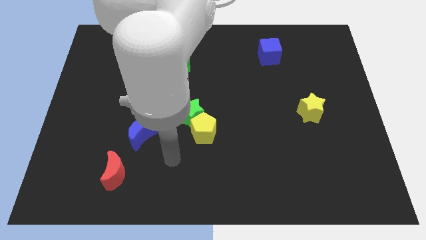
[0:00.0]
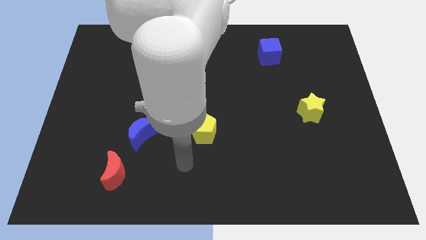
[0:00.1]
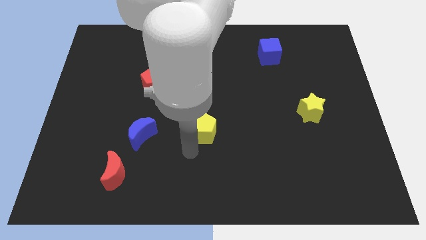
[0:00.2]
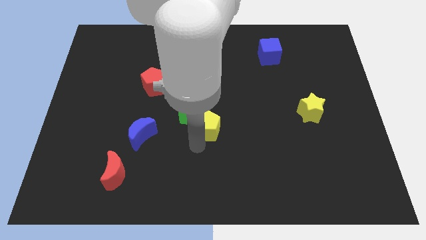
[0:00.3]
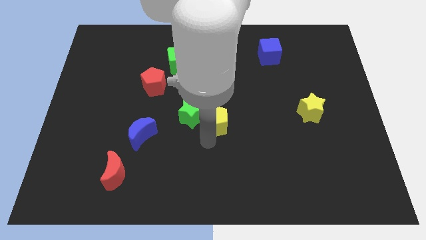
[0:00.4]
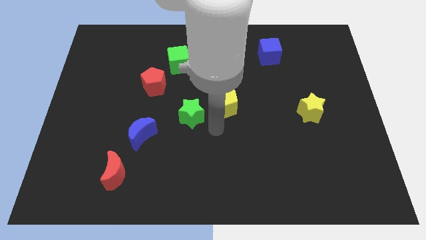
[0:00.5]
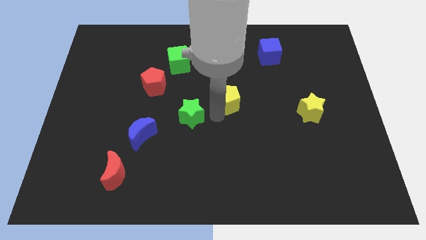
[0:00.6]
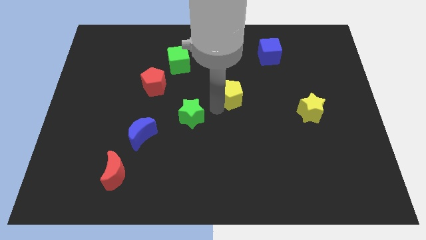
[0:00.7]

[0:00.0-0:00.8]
move the green star away from the yellow pentagon

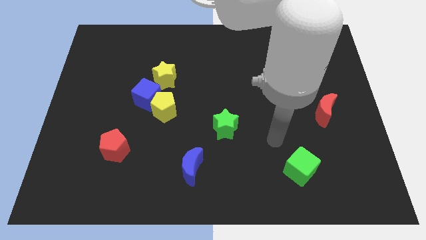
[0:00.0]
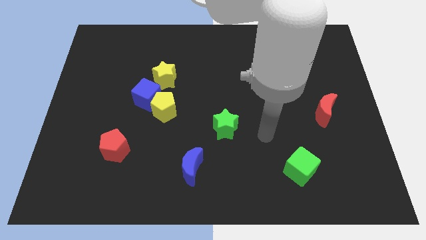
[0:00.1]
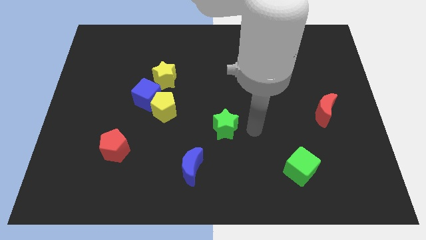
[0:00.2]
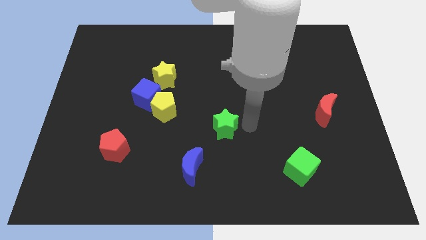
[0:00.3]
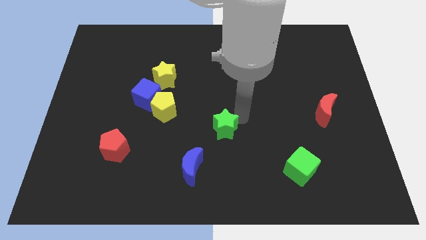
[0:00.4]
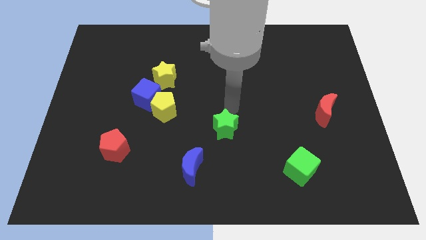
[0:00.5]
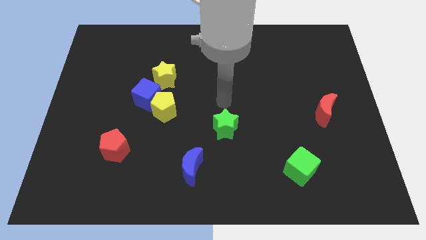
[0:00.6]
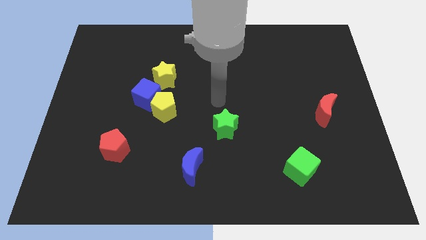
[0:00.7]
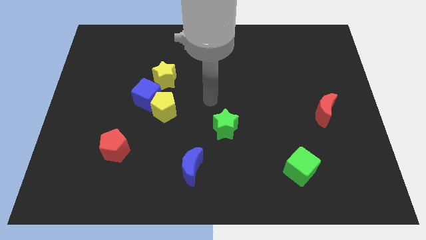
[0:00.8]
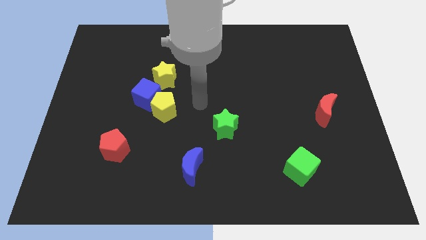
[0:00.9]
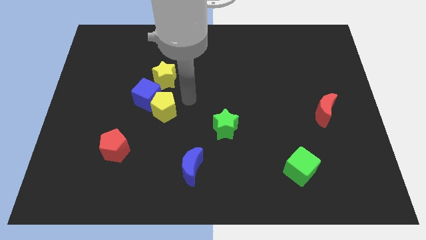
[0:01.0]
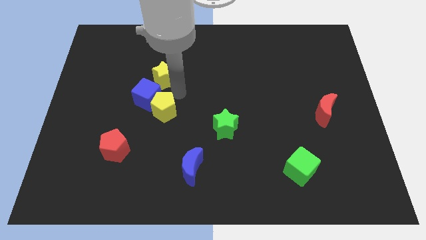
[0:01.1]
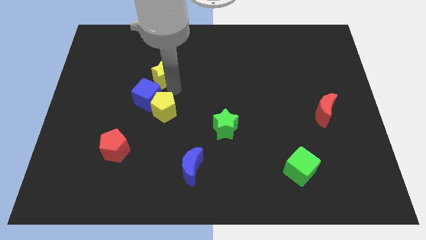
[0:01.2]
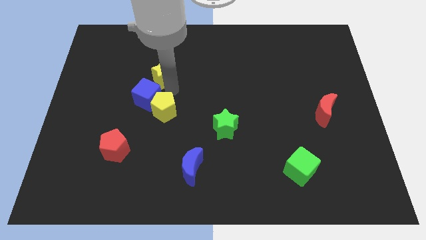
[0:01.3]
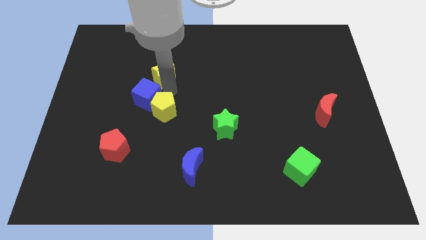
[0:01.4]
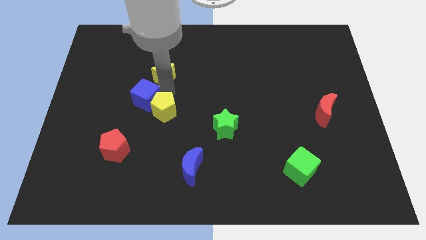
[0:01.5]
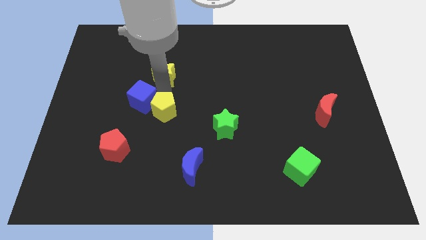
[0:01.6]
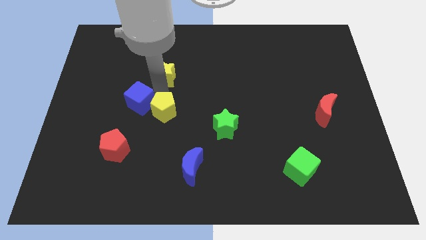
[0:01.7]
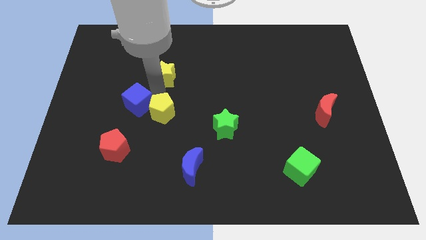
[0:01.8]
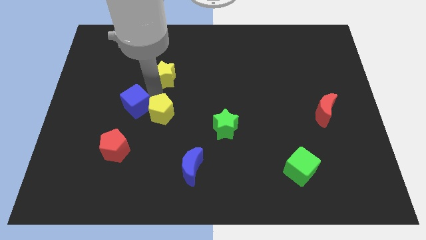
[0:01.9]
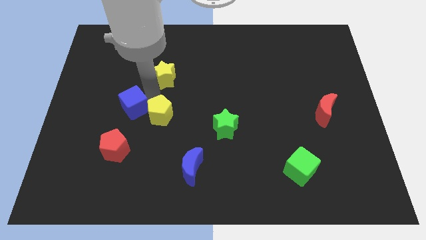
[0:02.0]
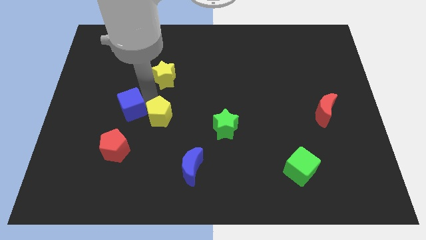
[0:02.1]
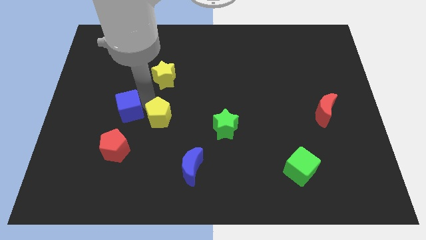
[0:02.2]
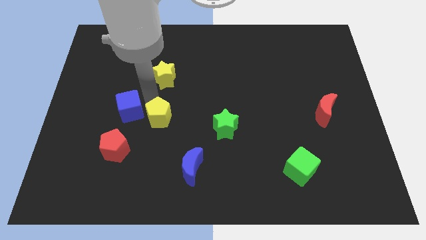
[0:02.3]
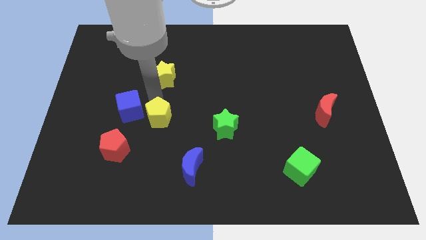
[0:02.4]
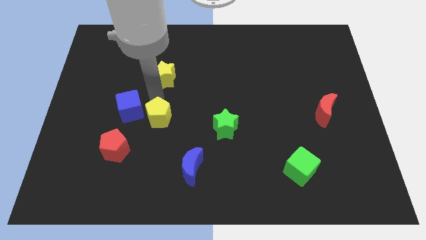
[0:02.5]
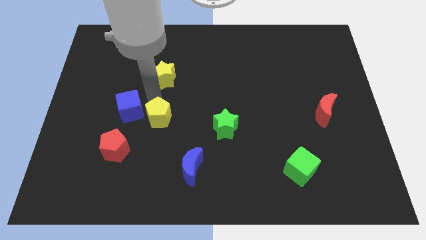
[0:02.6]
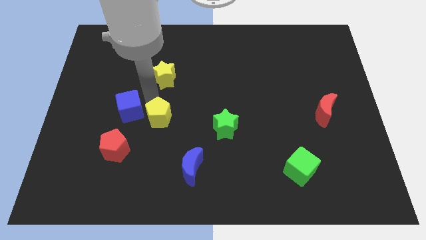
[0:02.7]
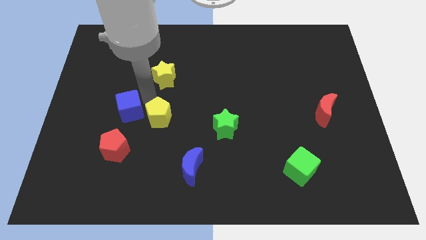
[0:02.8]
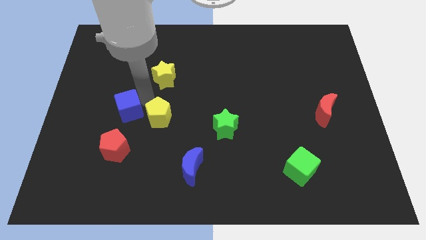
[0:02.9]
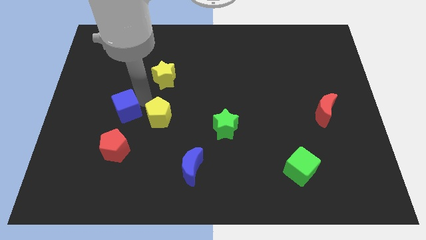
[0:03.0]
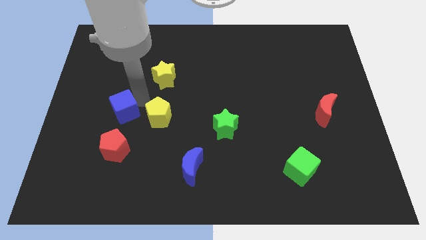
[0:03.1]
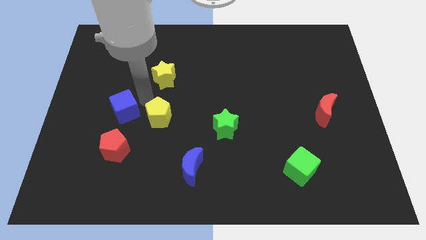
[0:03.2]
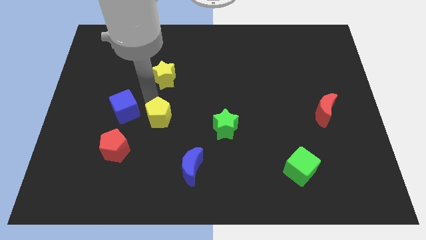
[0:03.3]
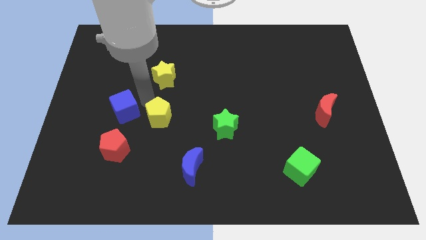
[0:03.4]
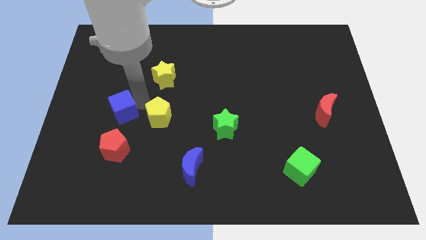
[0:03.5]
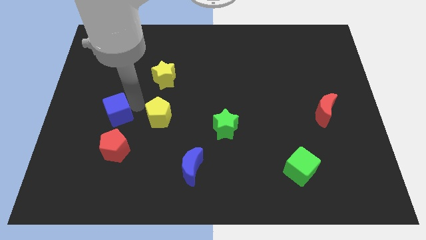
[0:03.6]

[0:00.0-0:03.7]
separate the blue cube from the yellow pentagon and yellow star

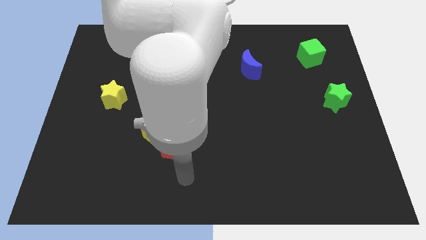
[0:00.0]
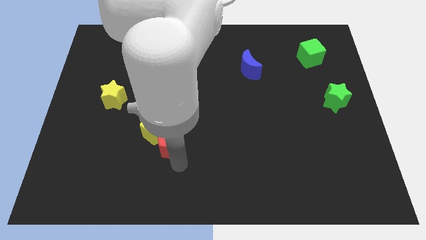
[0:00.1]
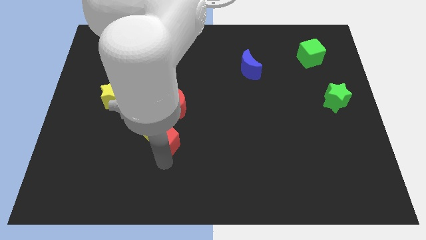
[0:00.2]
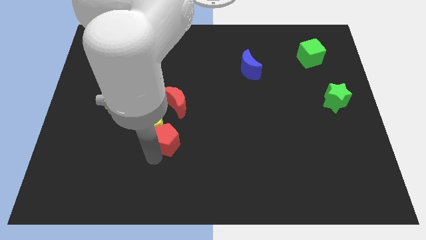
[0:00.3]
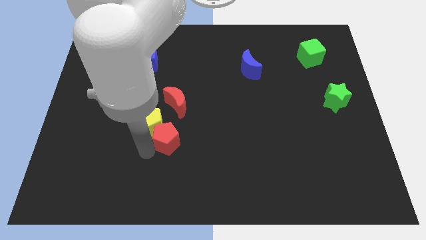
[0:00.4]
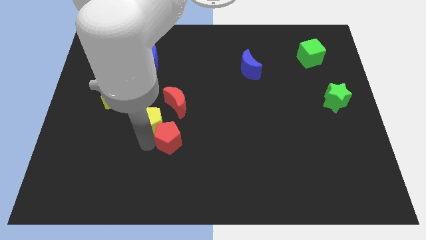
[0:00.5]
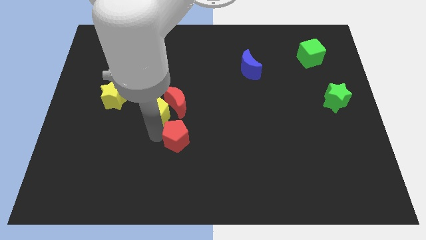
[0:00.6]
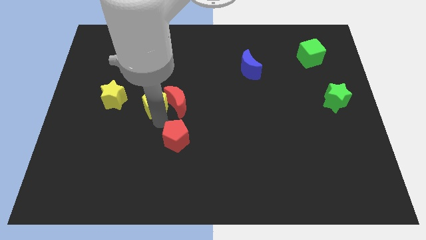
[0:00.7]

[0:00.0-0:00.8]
separate the red pentagon from the yellow pentagon

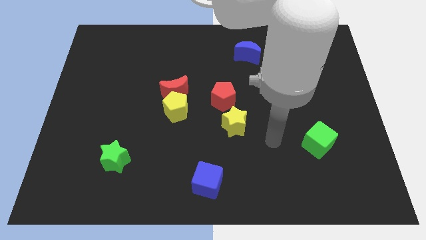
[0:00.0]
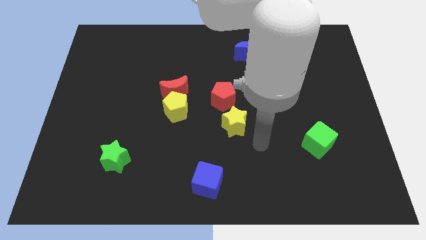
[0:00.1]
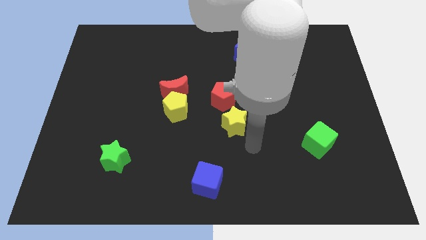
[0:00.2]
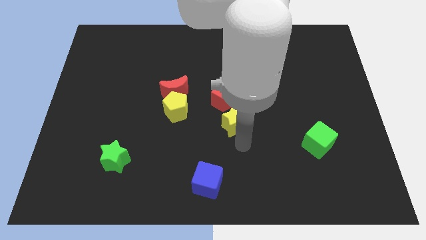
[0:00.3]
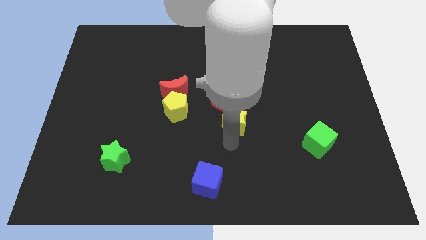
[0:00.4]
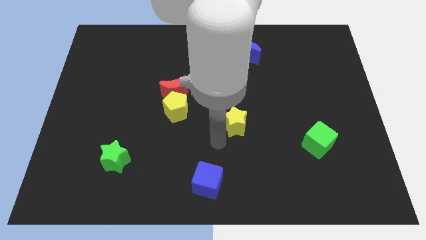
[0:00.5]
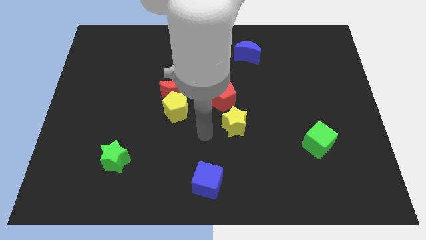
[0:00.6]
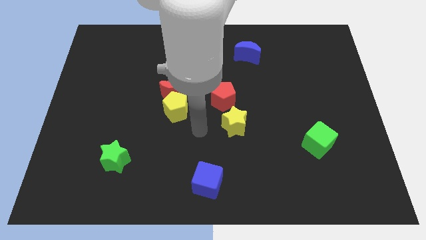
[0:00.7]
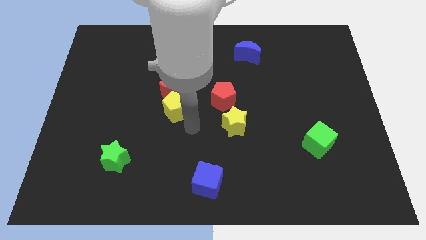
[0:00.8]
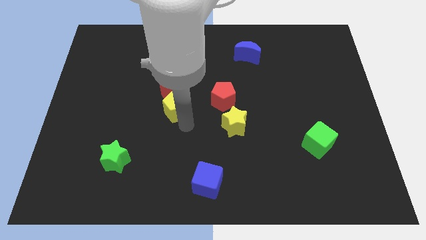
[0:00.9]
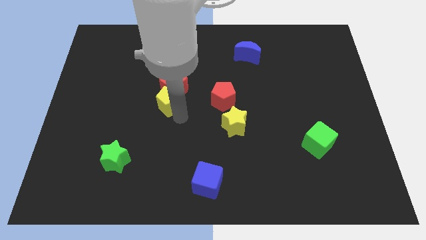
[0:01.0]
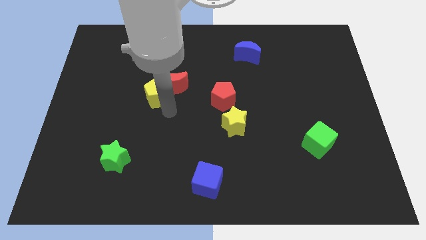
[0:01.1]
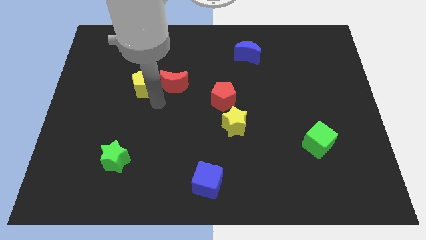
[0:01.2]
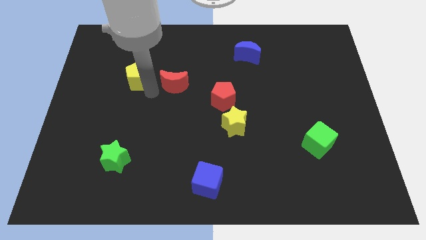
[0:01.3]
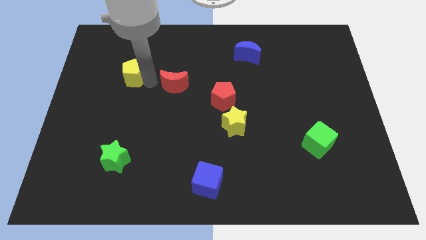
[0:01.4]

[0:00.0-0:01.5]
move the red moon away from the yellow pentagon

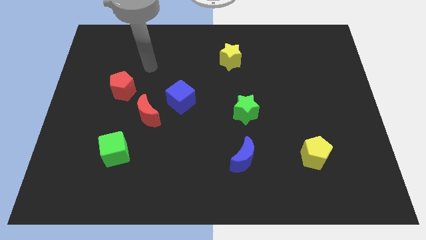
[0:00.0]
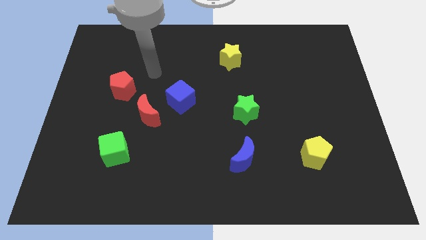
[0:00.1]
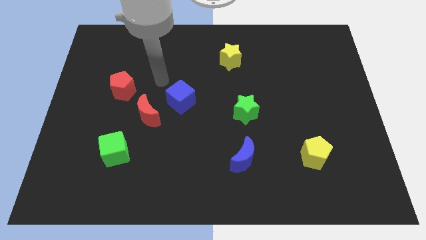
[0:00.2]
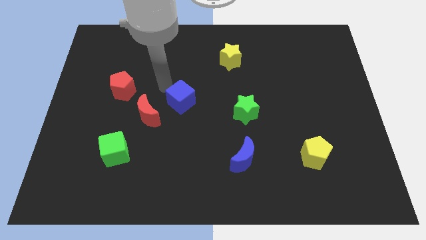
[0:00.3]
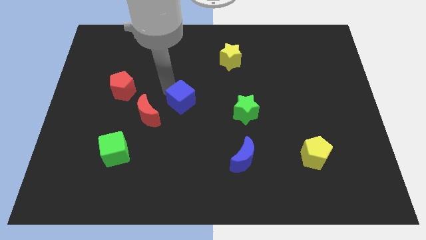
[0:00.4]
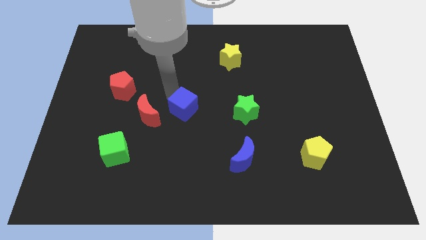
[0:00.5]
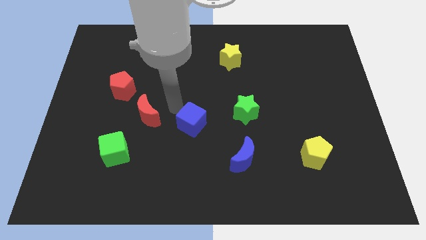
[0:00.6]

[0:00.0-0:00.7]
separate the red moon from the blue cube

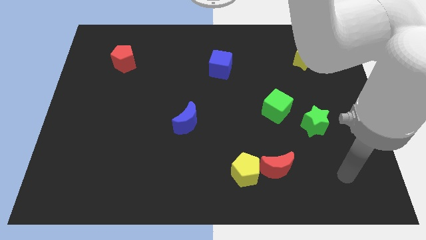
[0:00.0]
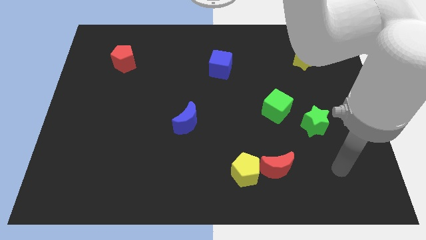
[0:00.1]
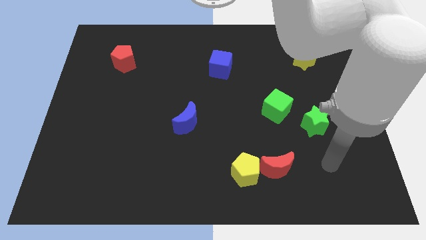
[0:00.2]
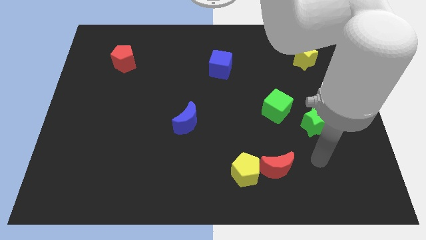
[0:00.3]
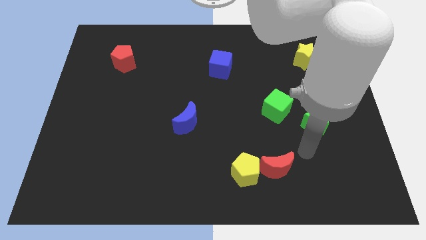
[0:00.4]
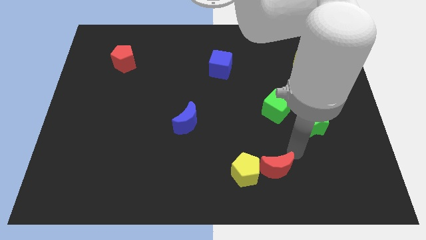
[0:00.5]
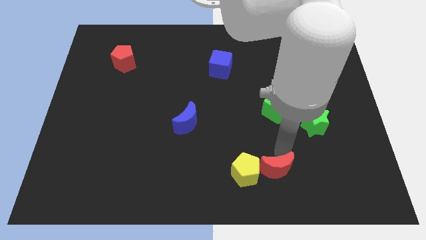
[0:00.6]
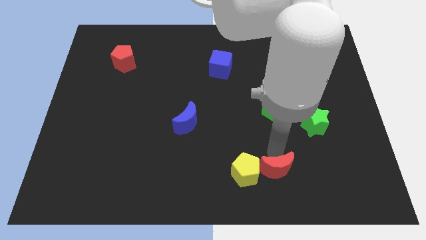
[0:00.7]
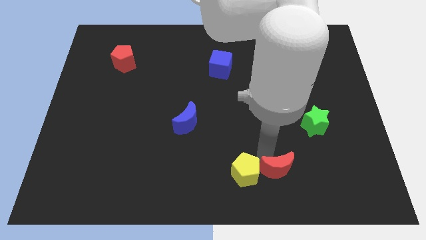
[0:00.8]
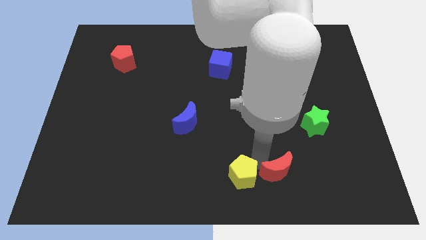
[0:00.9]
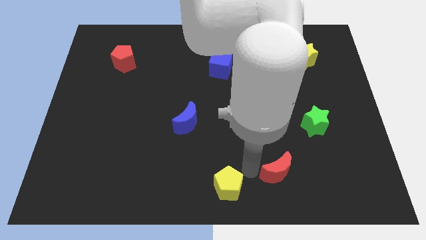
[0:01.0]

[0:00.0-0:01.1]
pull the red moon apart from the yellow pentagon

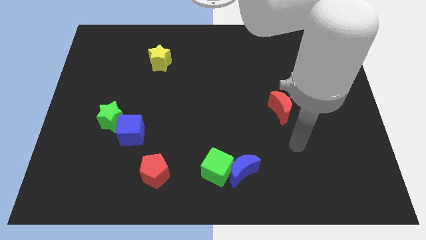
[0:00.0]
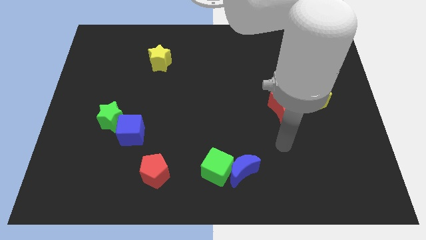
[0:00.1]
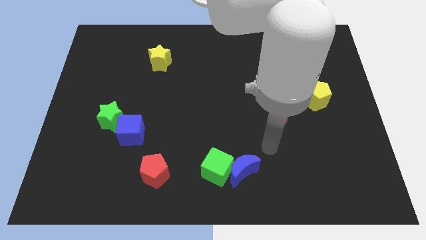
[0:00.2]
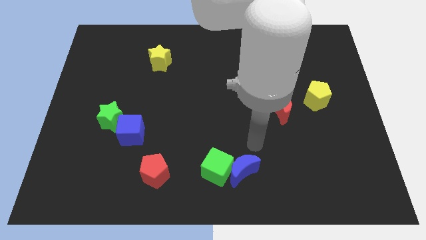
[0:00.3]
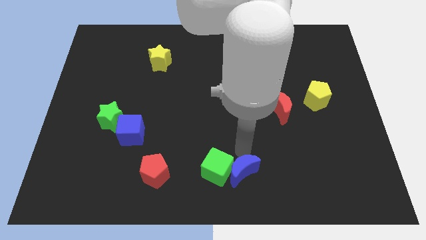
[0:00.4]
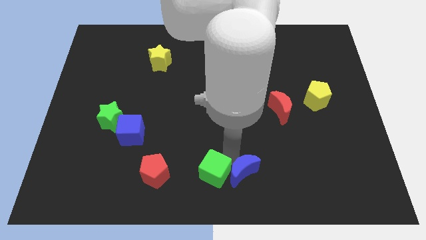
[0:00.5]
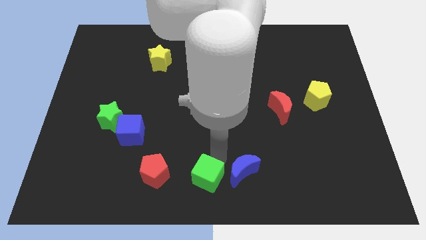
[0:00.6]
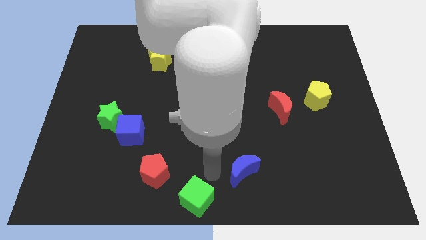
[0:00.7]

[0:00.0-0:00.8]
pull the blue moon apart from the green cube
